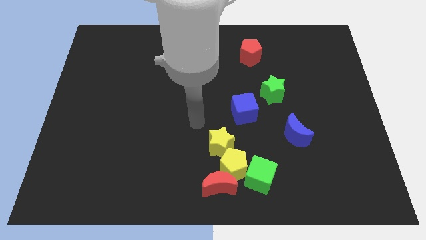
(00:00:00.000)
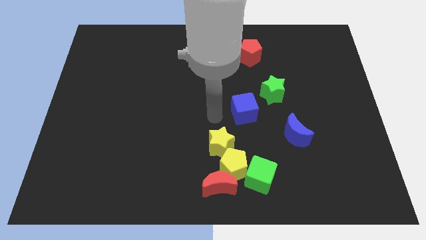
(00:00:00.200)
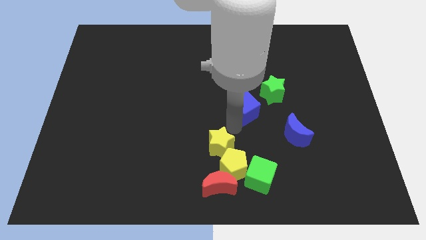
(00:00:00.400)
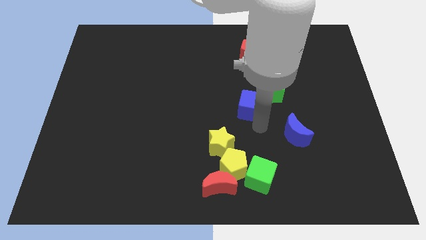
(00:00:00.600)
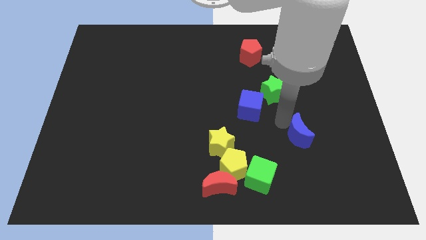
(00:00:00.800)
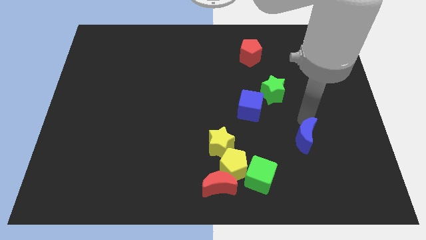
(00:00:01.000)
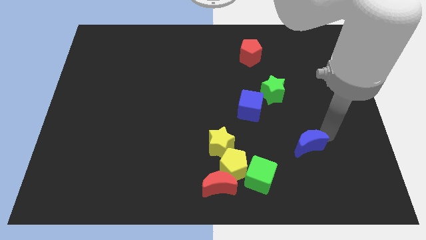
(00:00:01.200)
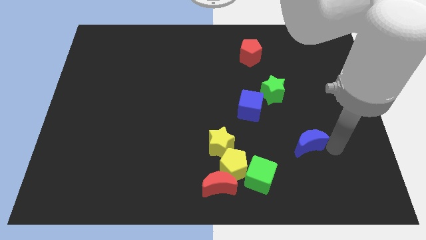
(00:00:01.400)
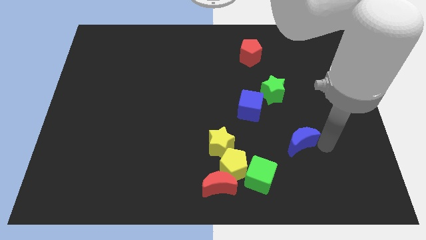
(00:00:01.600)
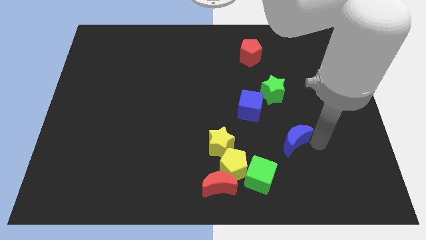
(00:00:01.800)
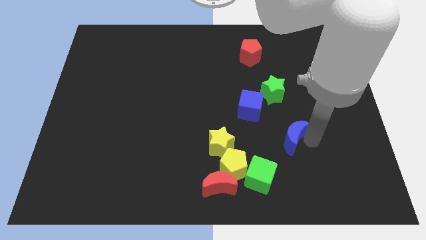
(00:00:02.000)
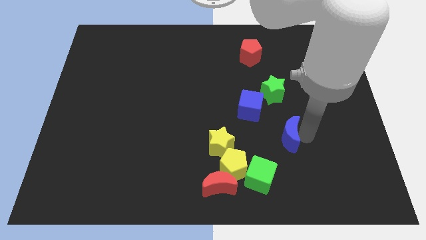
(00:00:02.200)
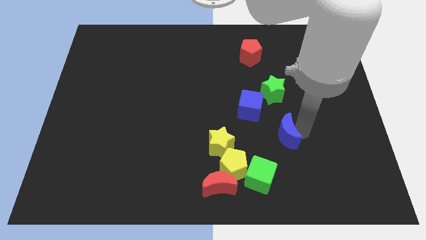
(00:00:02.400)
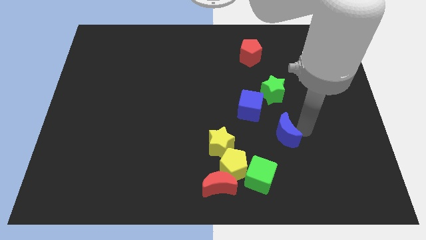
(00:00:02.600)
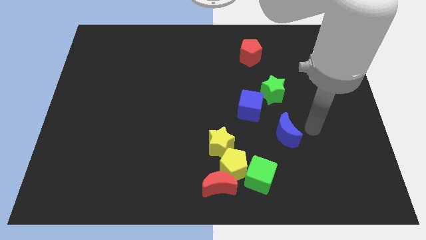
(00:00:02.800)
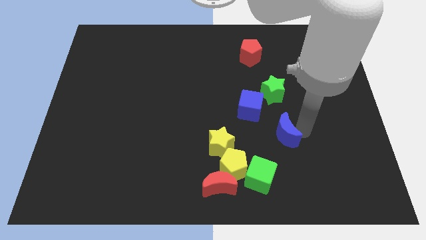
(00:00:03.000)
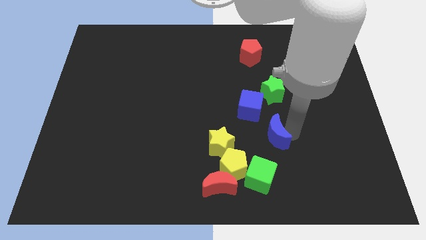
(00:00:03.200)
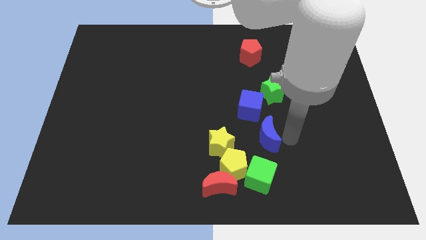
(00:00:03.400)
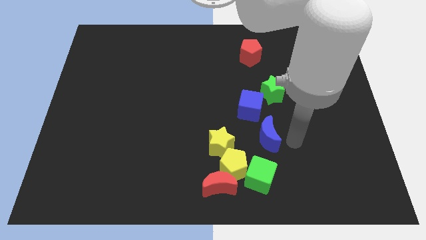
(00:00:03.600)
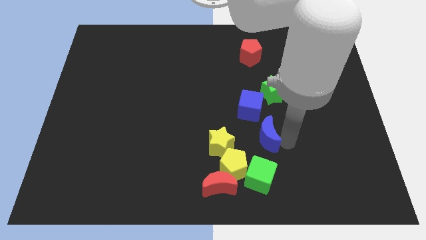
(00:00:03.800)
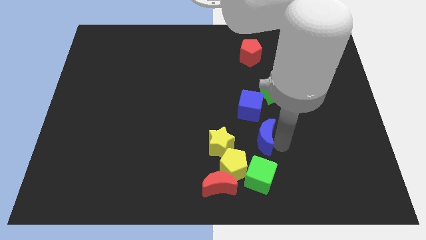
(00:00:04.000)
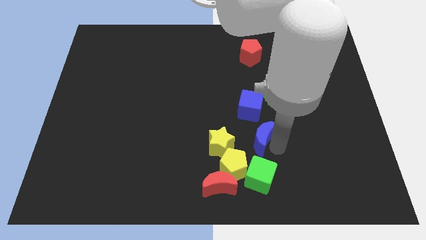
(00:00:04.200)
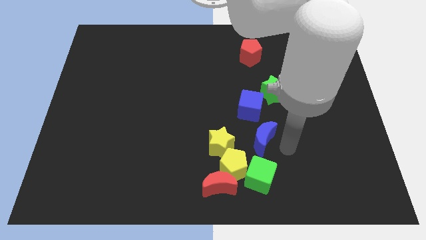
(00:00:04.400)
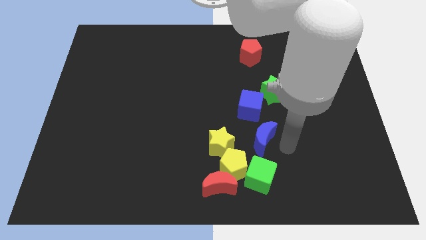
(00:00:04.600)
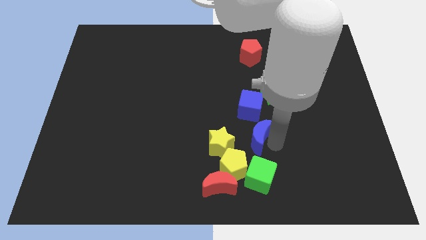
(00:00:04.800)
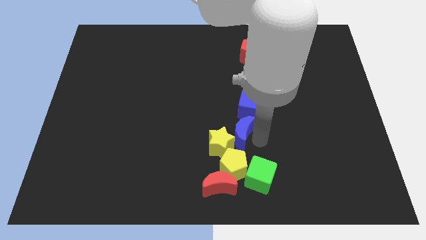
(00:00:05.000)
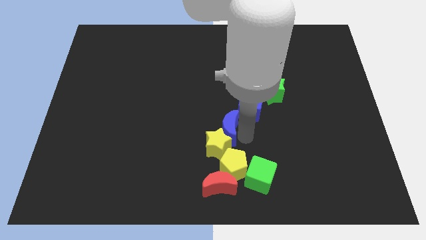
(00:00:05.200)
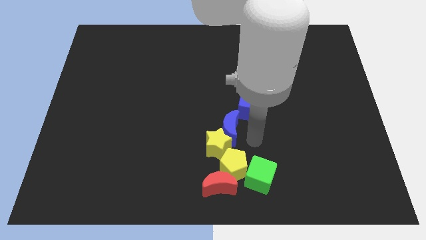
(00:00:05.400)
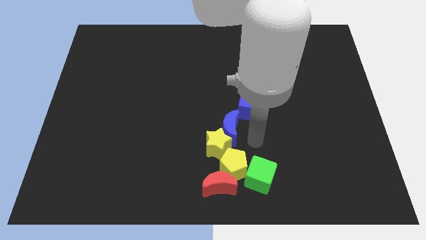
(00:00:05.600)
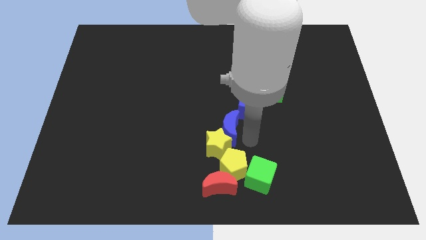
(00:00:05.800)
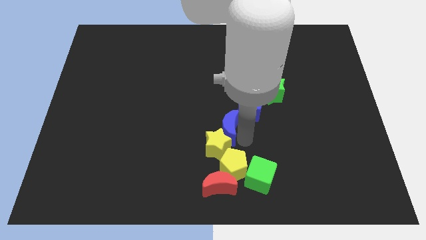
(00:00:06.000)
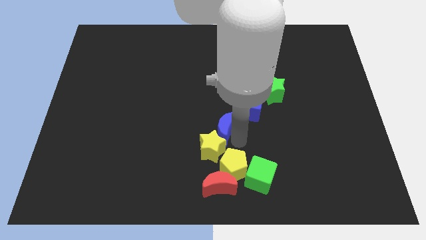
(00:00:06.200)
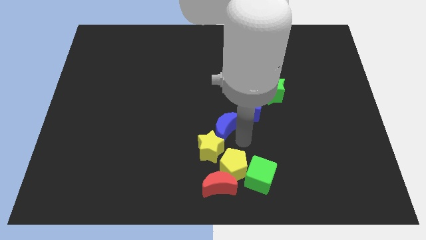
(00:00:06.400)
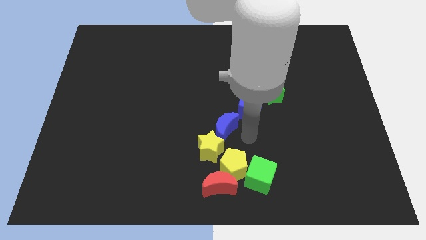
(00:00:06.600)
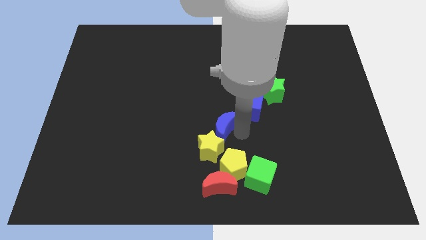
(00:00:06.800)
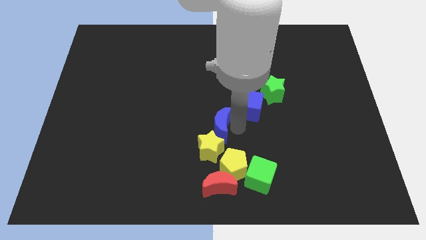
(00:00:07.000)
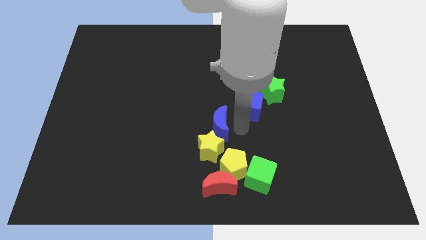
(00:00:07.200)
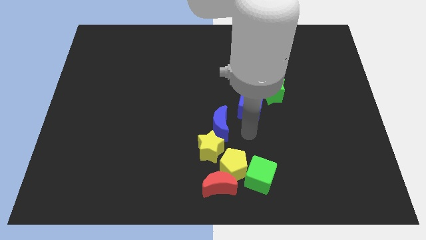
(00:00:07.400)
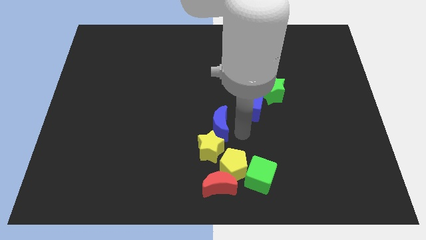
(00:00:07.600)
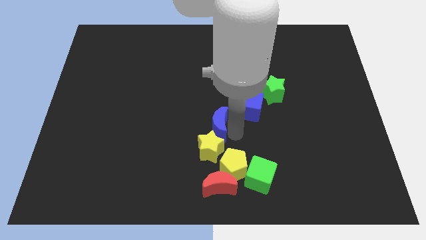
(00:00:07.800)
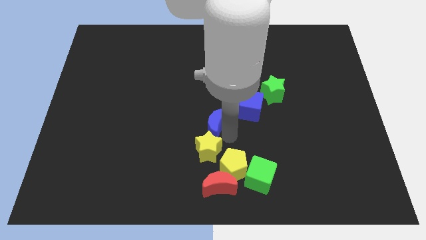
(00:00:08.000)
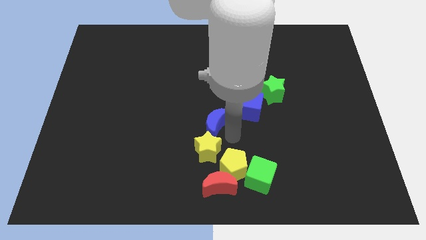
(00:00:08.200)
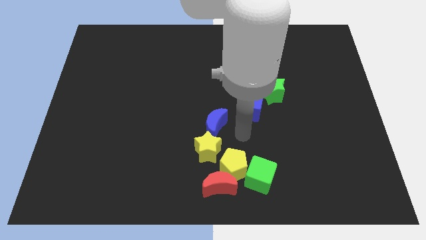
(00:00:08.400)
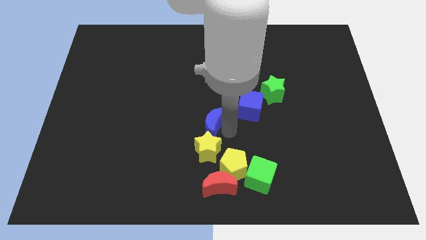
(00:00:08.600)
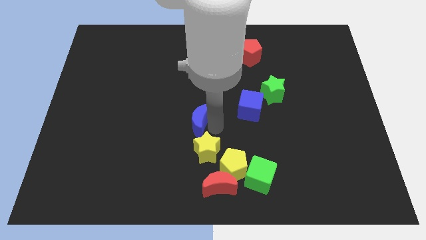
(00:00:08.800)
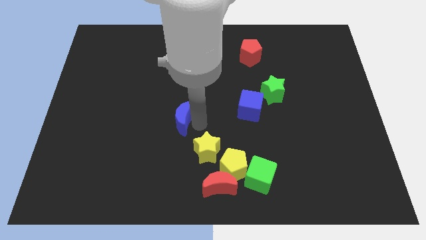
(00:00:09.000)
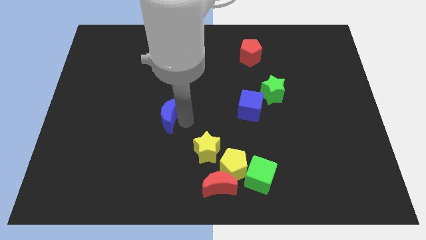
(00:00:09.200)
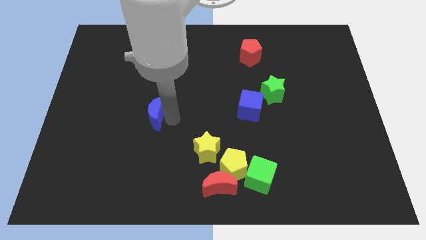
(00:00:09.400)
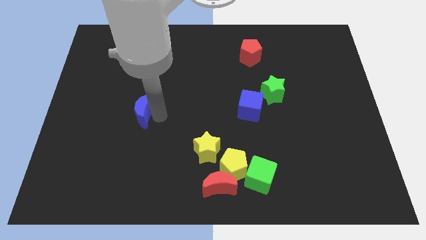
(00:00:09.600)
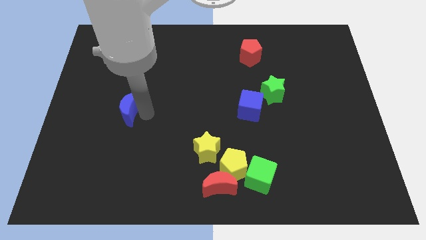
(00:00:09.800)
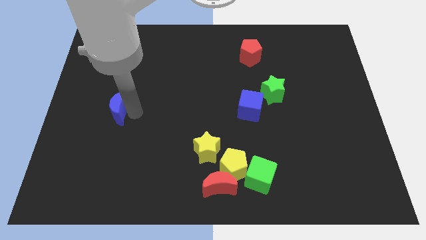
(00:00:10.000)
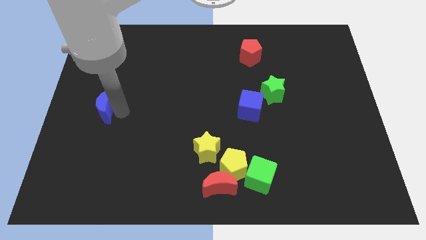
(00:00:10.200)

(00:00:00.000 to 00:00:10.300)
put the blue moon to the left side

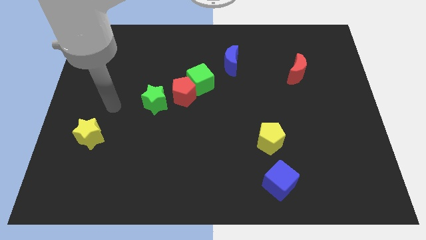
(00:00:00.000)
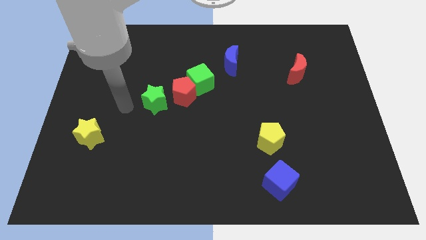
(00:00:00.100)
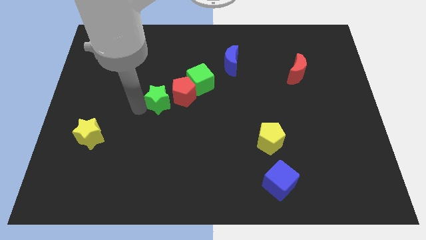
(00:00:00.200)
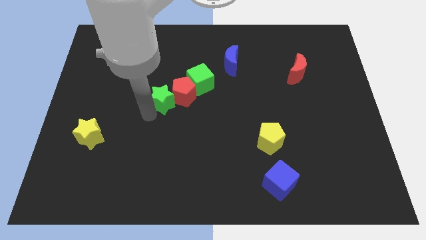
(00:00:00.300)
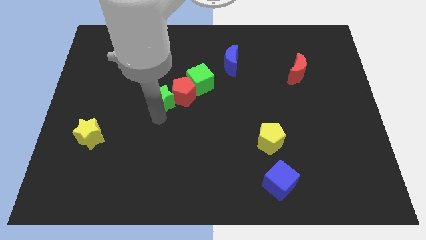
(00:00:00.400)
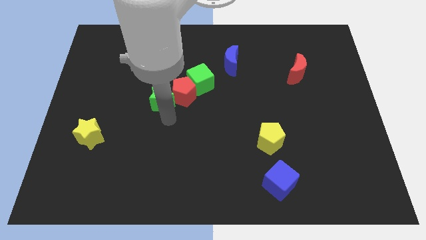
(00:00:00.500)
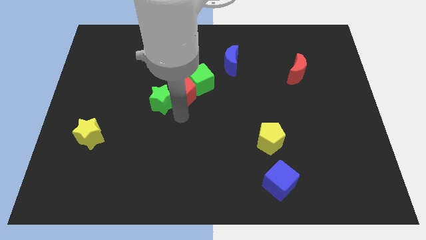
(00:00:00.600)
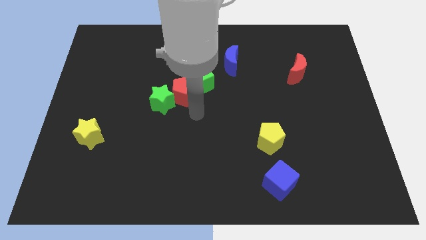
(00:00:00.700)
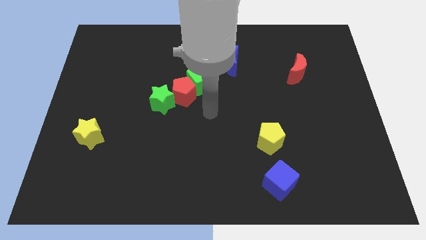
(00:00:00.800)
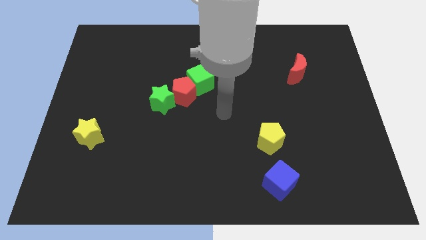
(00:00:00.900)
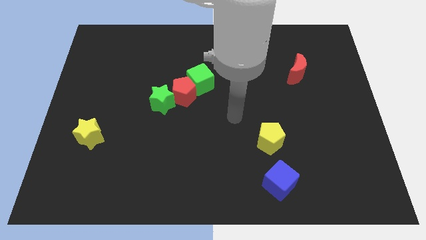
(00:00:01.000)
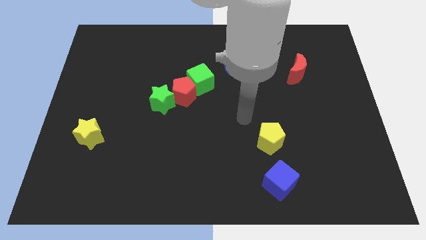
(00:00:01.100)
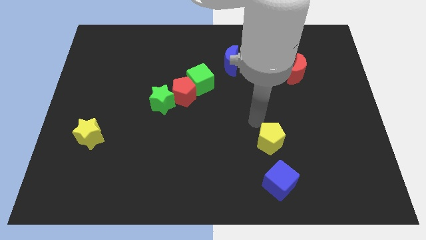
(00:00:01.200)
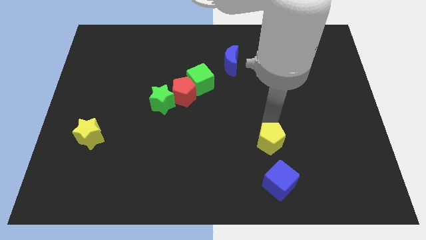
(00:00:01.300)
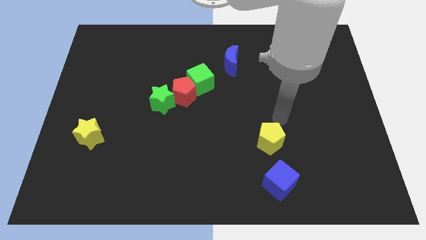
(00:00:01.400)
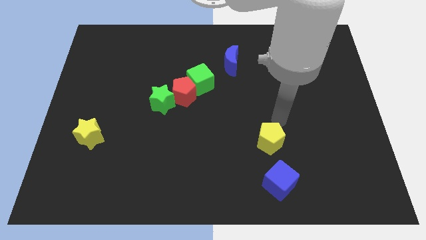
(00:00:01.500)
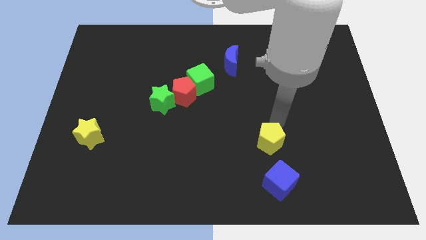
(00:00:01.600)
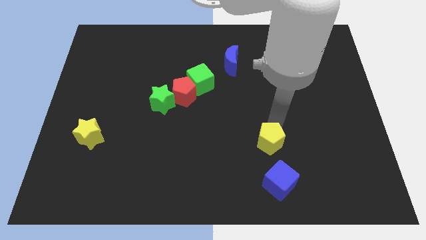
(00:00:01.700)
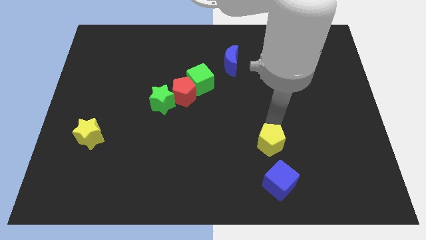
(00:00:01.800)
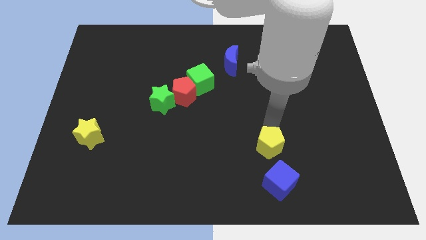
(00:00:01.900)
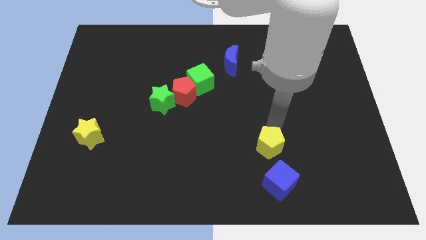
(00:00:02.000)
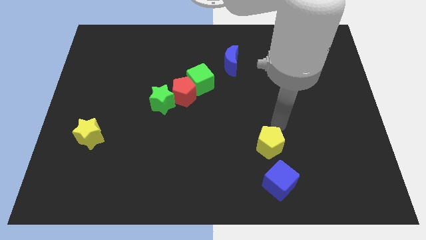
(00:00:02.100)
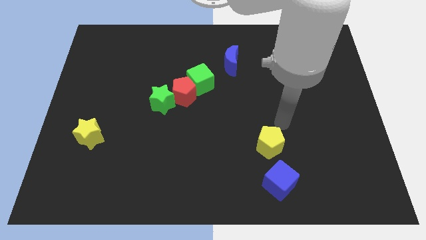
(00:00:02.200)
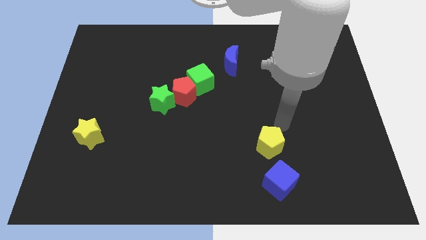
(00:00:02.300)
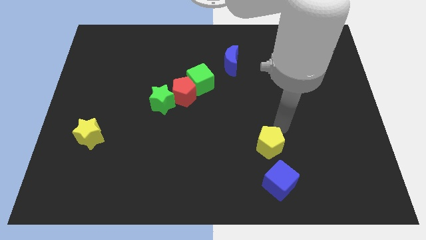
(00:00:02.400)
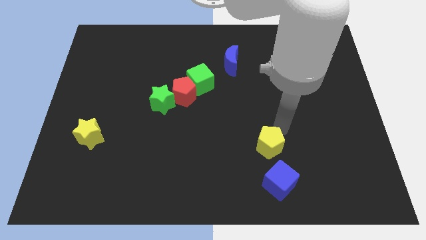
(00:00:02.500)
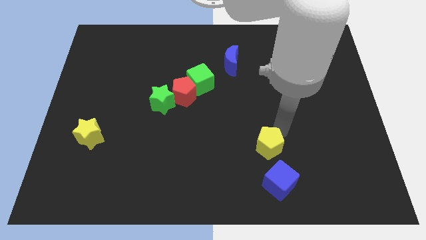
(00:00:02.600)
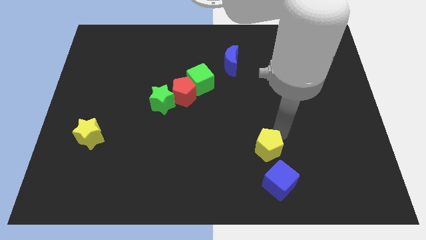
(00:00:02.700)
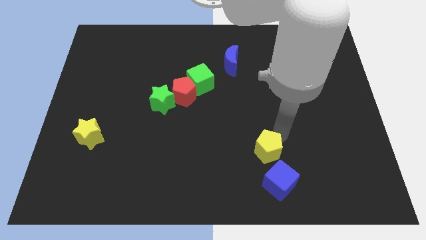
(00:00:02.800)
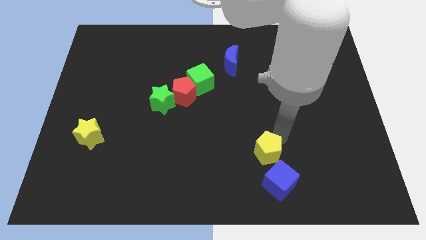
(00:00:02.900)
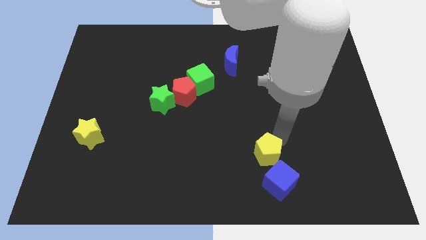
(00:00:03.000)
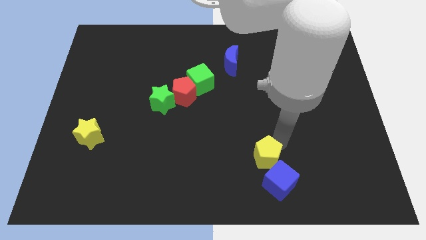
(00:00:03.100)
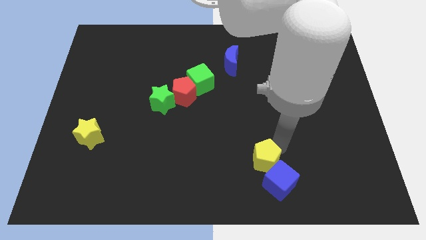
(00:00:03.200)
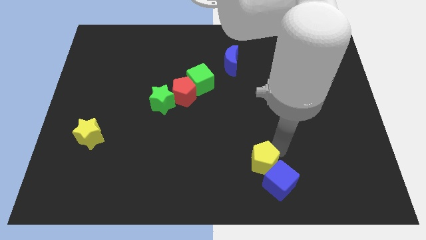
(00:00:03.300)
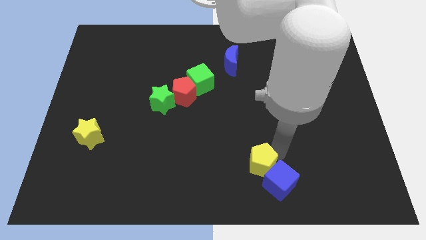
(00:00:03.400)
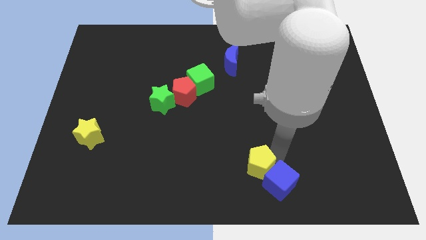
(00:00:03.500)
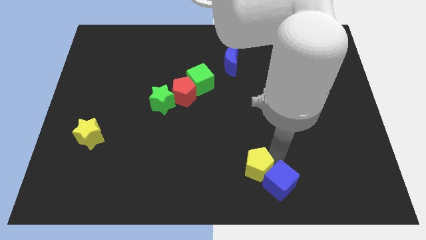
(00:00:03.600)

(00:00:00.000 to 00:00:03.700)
slide the yellow pentagon to the bottom
